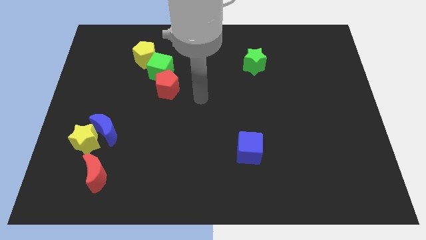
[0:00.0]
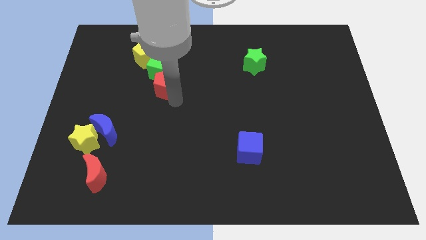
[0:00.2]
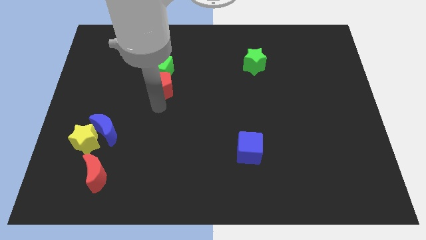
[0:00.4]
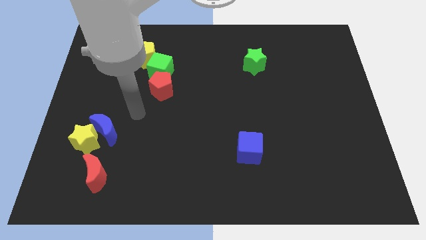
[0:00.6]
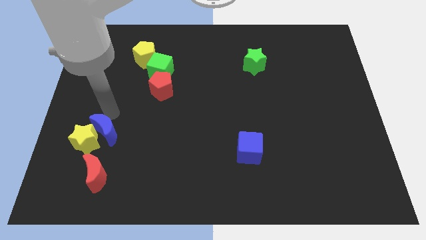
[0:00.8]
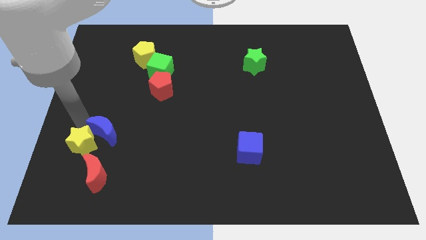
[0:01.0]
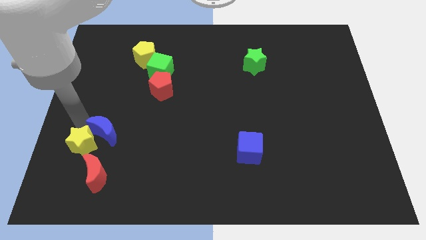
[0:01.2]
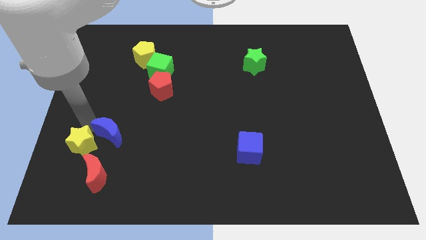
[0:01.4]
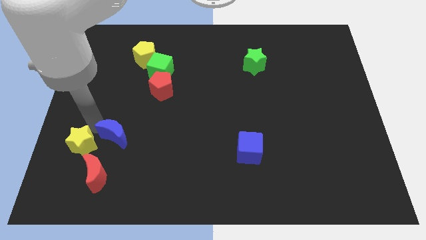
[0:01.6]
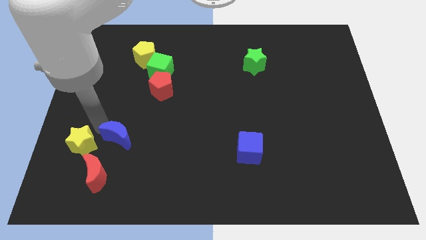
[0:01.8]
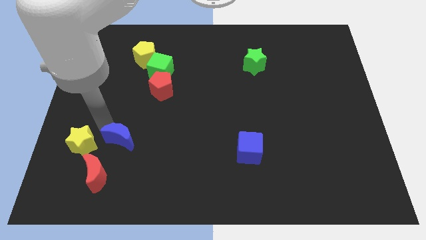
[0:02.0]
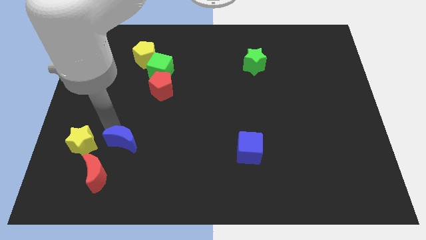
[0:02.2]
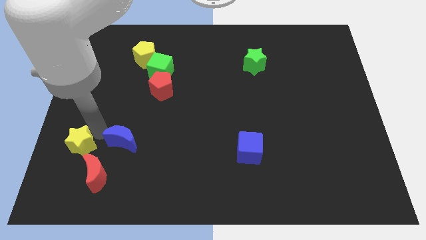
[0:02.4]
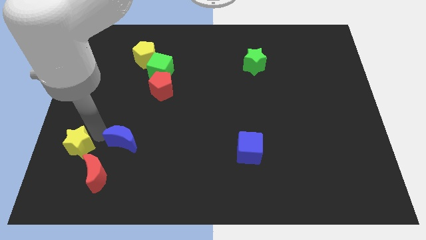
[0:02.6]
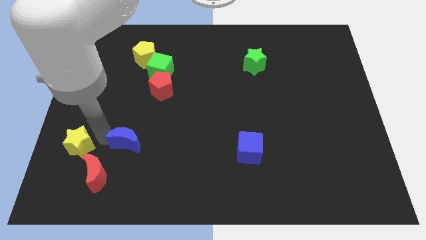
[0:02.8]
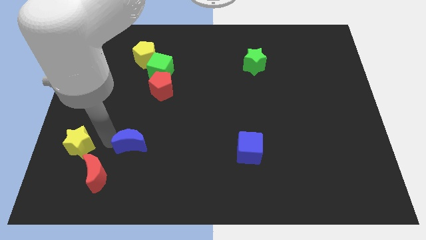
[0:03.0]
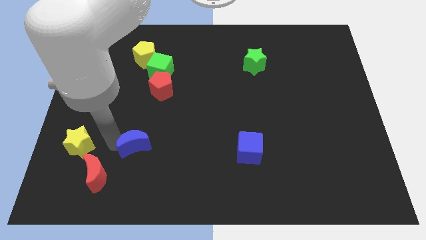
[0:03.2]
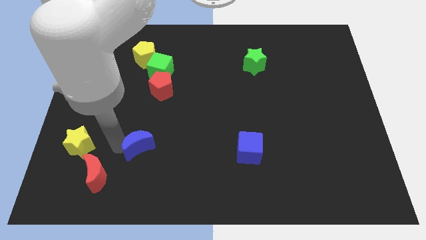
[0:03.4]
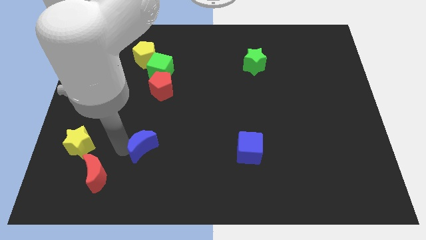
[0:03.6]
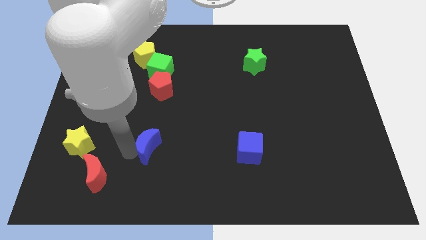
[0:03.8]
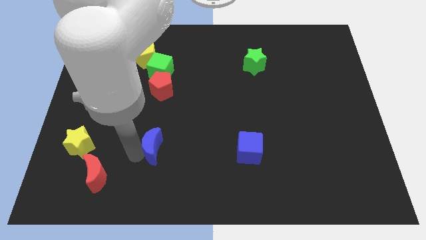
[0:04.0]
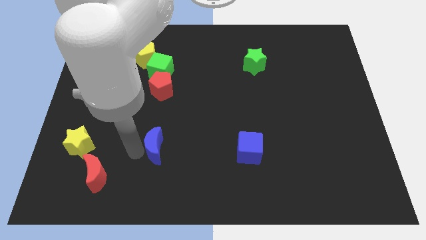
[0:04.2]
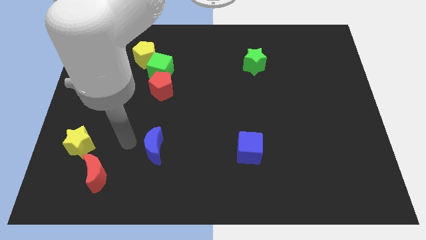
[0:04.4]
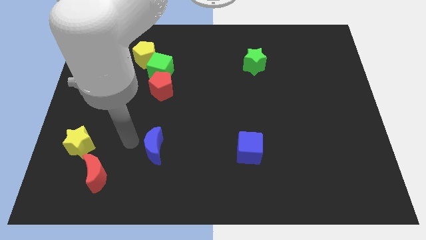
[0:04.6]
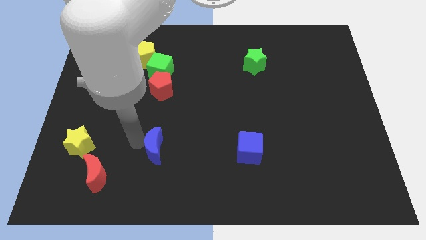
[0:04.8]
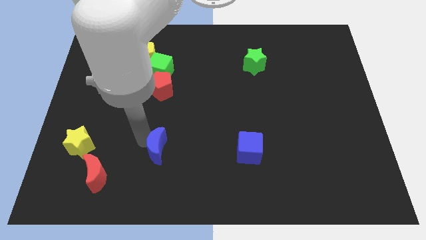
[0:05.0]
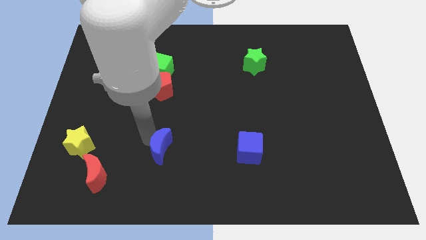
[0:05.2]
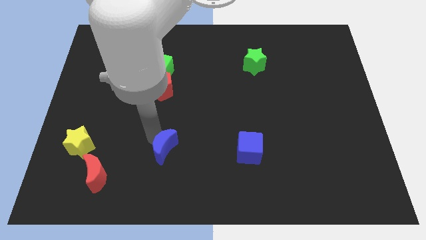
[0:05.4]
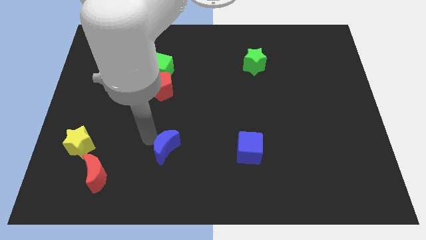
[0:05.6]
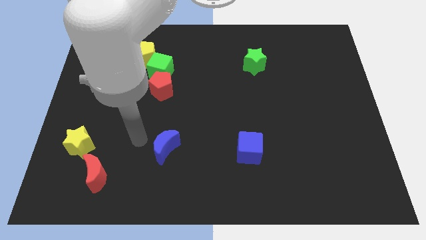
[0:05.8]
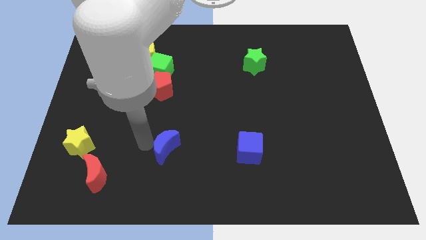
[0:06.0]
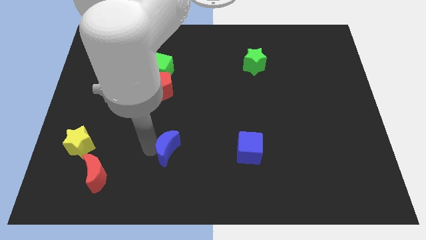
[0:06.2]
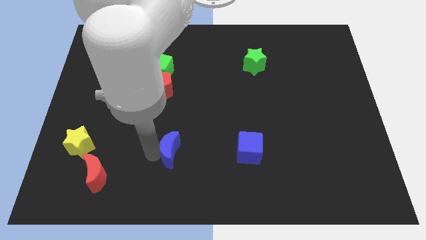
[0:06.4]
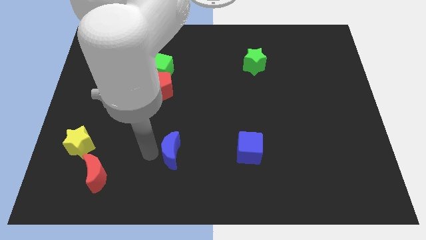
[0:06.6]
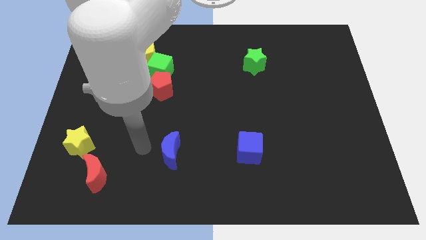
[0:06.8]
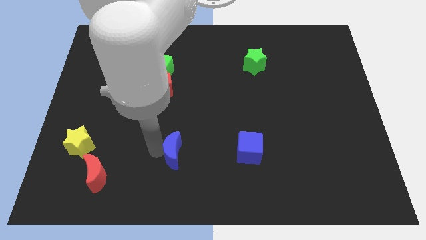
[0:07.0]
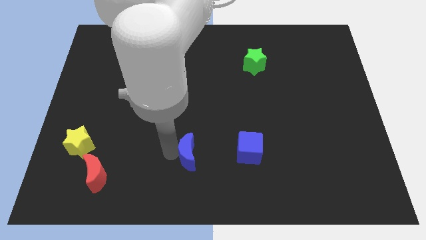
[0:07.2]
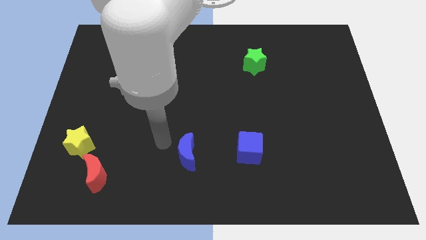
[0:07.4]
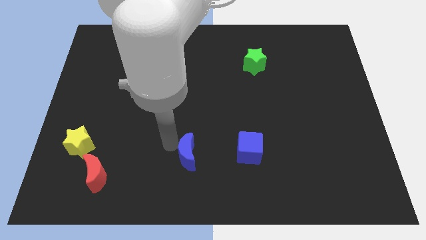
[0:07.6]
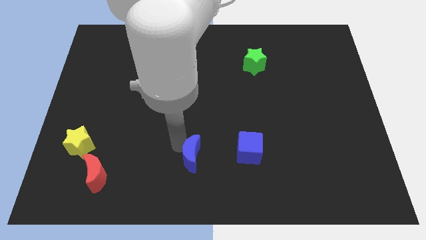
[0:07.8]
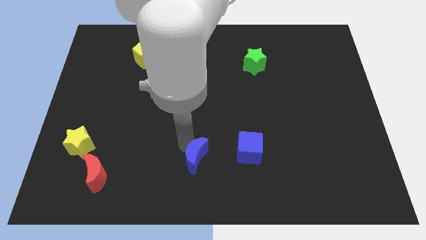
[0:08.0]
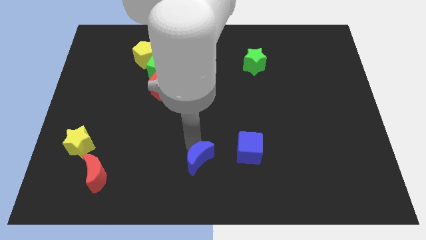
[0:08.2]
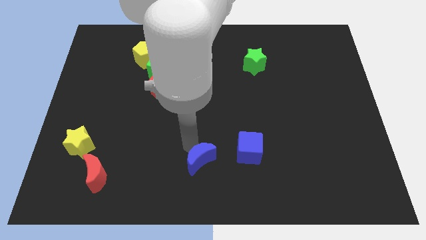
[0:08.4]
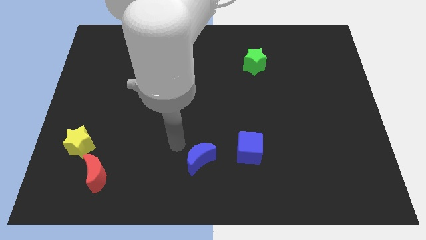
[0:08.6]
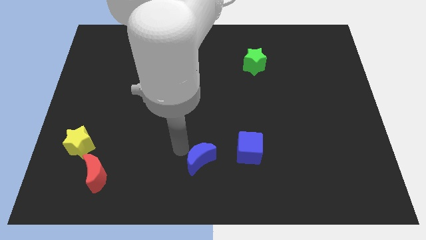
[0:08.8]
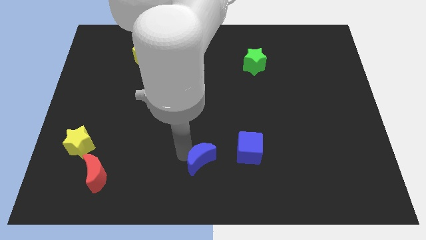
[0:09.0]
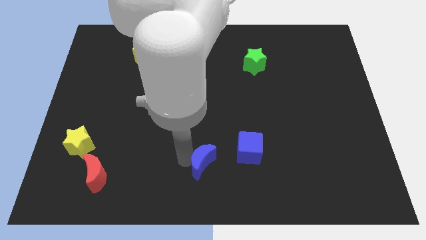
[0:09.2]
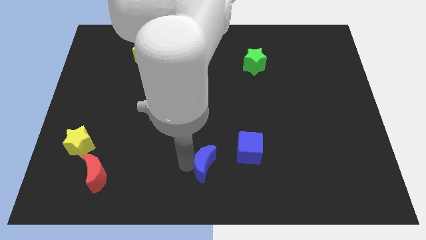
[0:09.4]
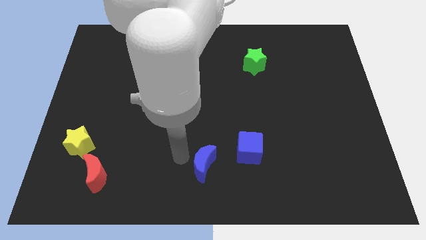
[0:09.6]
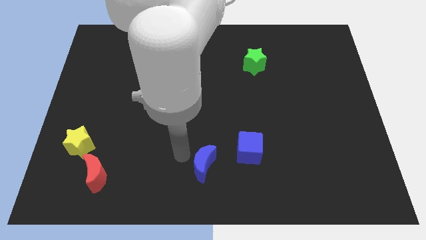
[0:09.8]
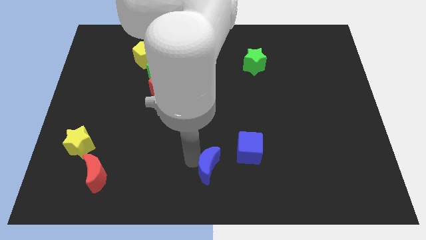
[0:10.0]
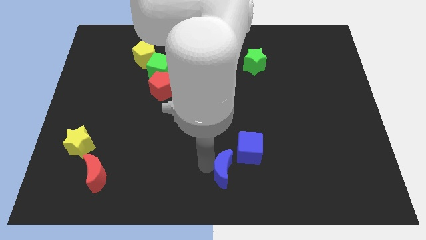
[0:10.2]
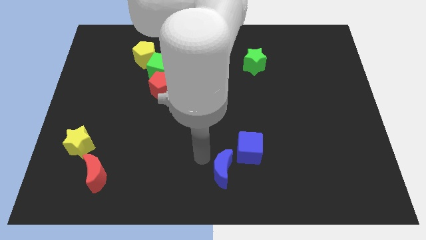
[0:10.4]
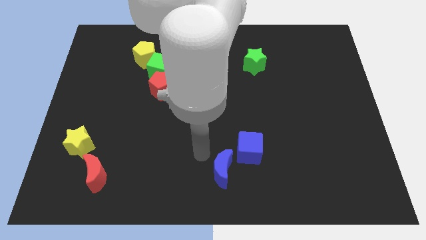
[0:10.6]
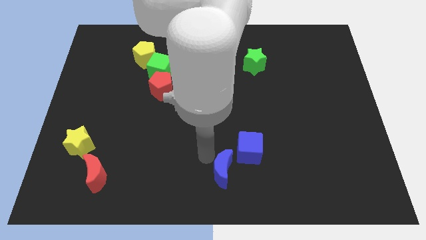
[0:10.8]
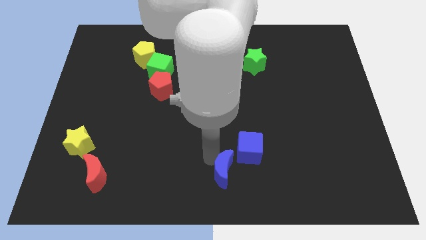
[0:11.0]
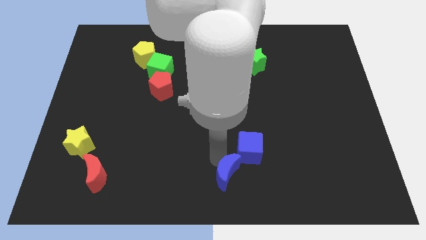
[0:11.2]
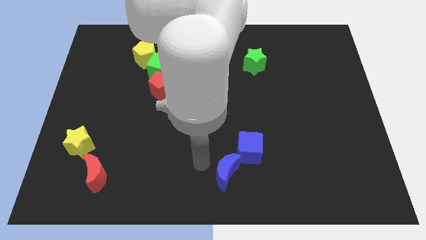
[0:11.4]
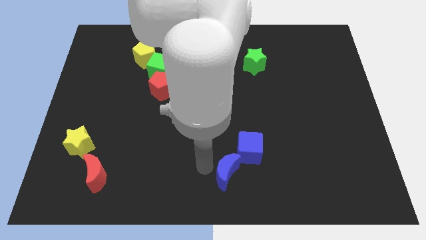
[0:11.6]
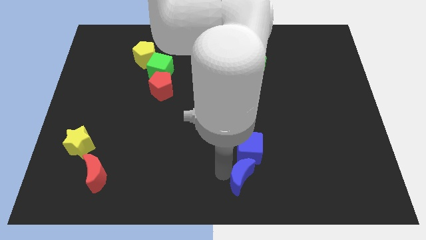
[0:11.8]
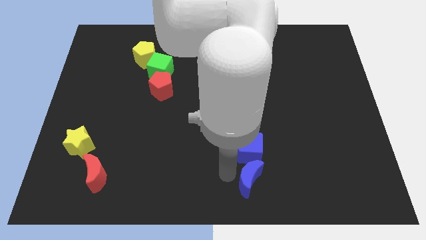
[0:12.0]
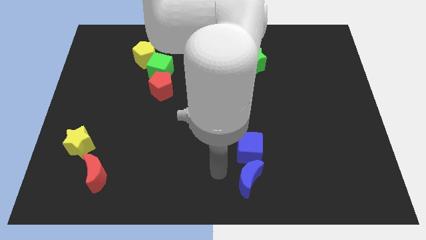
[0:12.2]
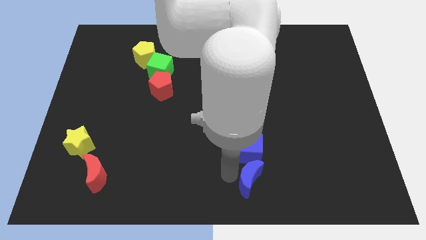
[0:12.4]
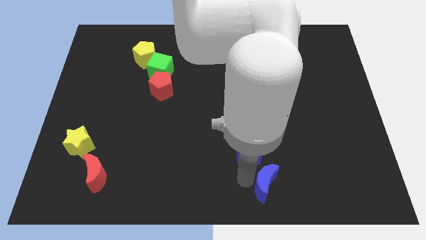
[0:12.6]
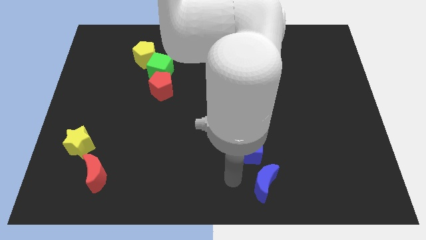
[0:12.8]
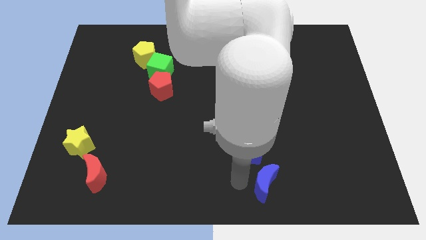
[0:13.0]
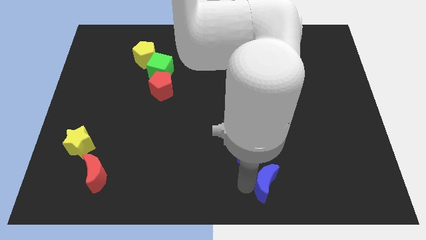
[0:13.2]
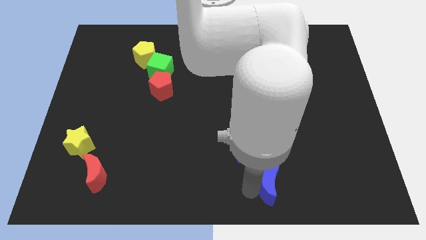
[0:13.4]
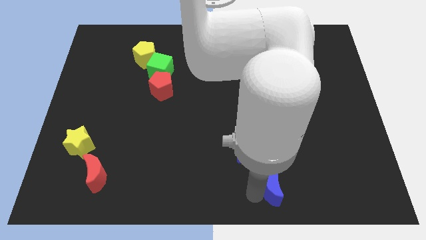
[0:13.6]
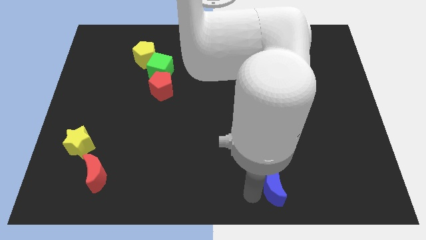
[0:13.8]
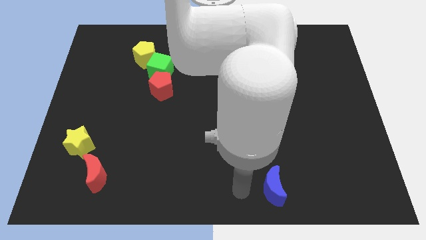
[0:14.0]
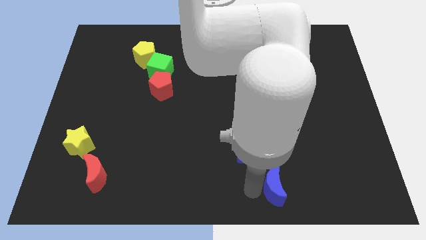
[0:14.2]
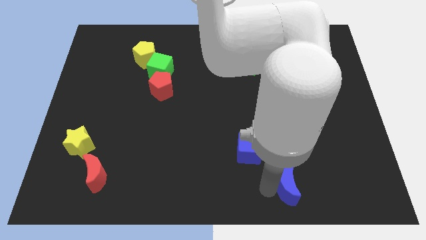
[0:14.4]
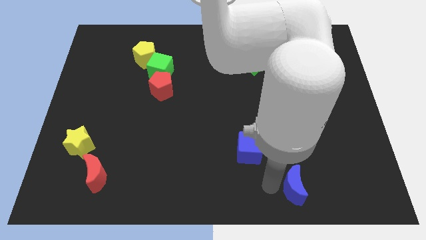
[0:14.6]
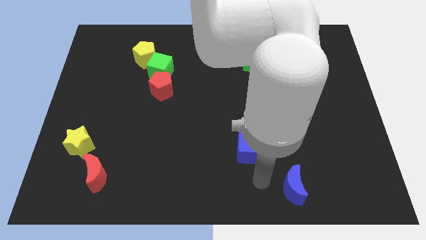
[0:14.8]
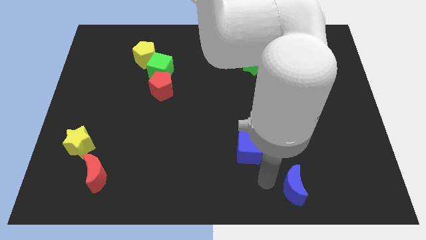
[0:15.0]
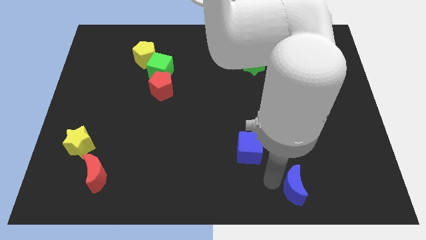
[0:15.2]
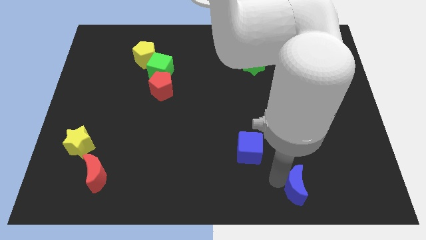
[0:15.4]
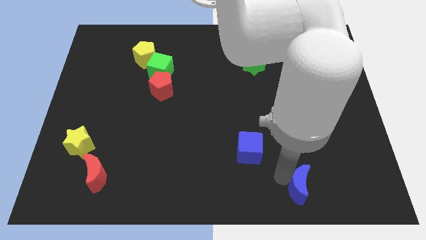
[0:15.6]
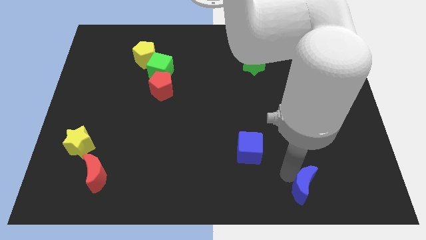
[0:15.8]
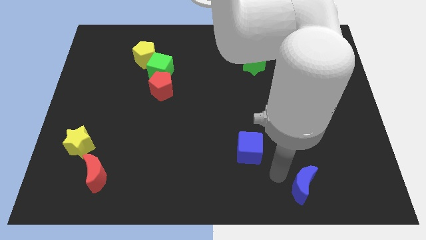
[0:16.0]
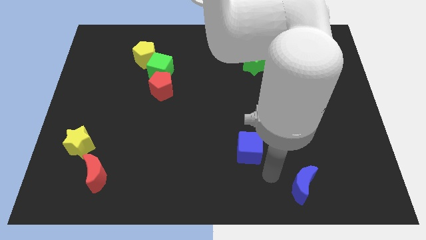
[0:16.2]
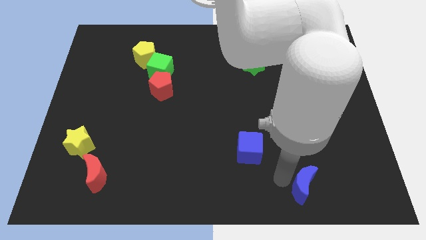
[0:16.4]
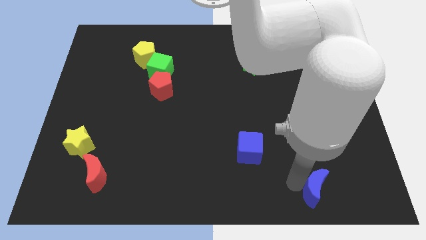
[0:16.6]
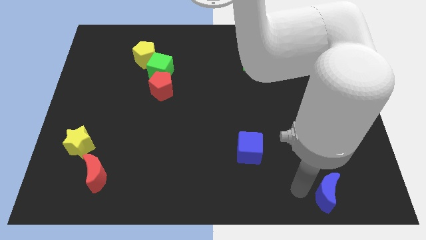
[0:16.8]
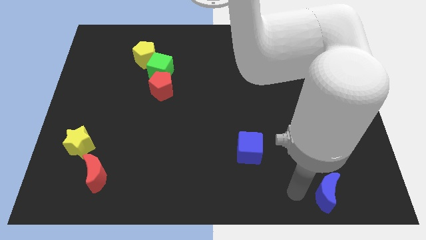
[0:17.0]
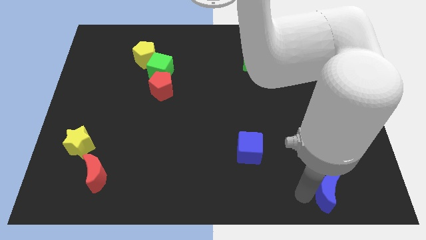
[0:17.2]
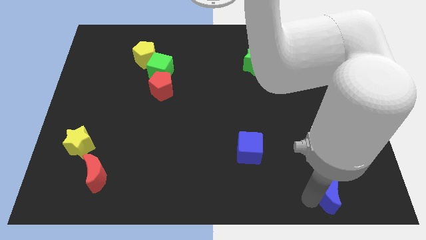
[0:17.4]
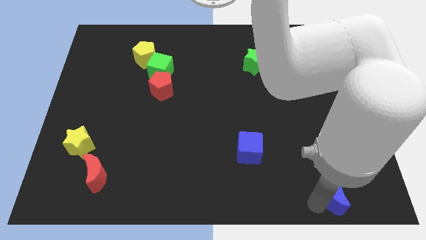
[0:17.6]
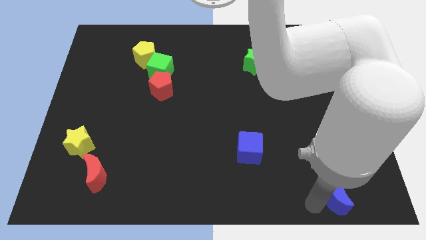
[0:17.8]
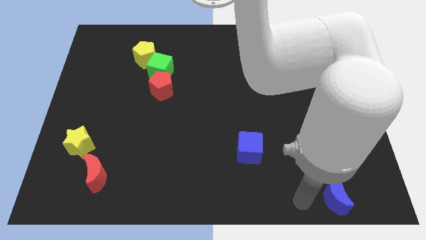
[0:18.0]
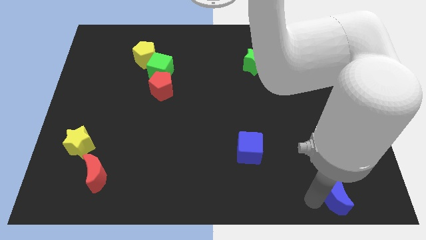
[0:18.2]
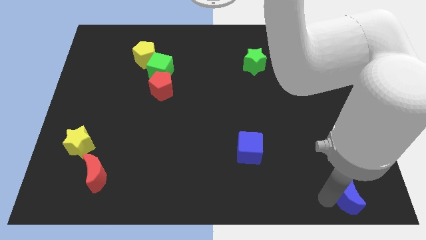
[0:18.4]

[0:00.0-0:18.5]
slide the blue moon to the bottom right of the board
